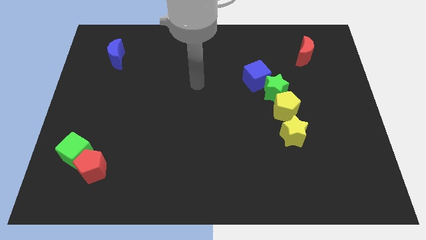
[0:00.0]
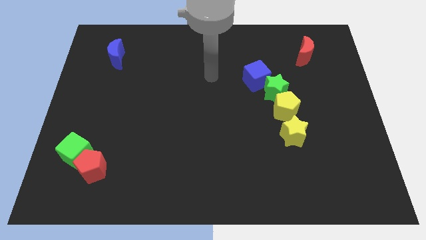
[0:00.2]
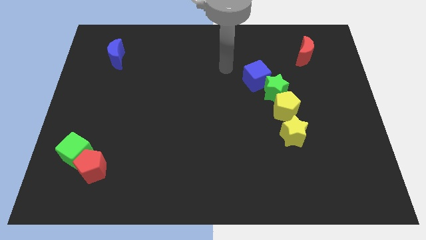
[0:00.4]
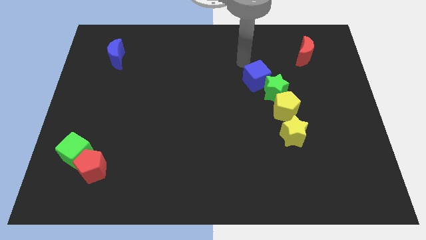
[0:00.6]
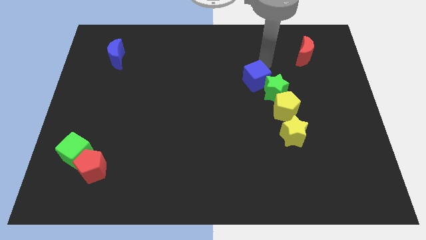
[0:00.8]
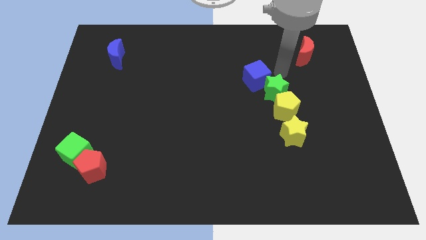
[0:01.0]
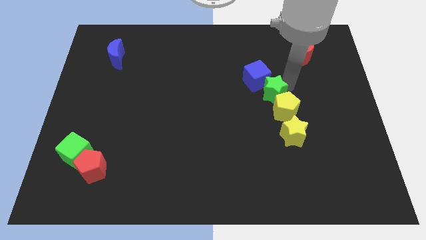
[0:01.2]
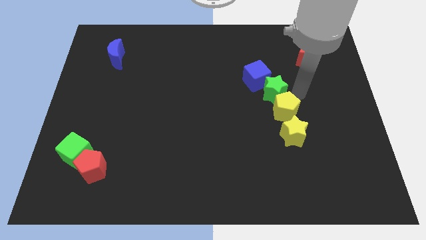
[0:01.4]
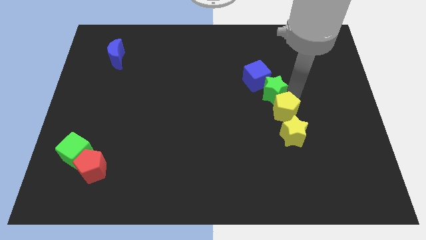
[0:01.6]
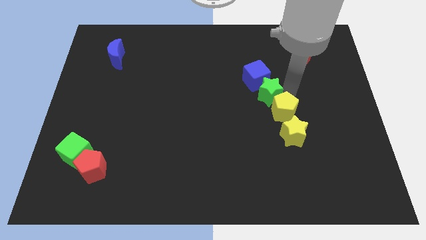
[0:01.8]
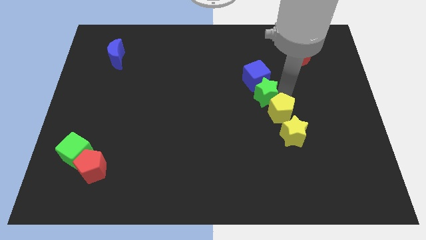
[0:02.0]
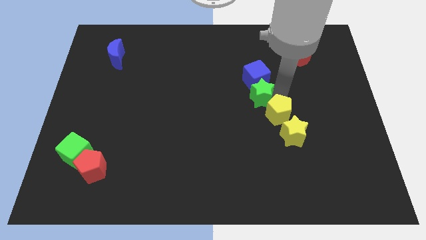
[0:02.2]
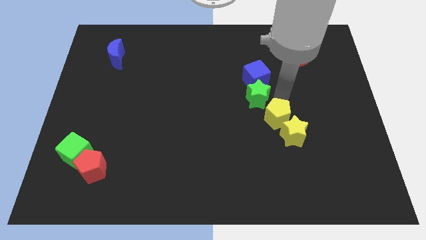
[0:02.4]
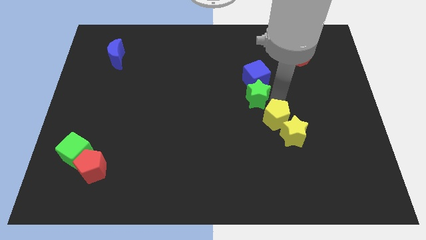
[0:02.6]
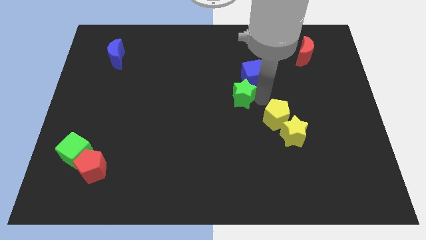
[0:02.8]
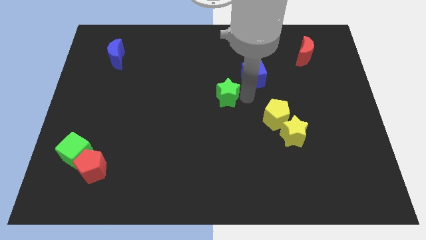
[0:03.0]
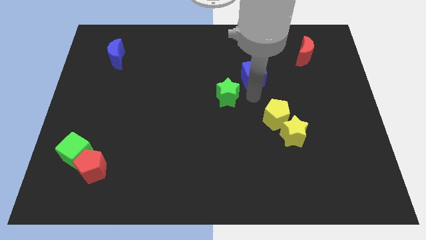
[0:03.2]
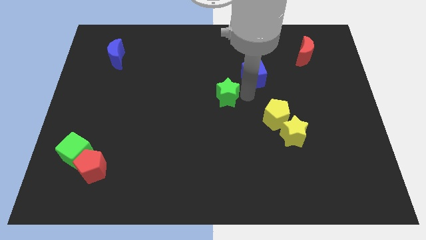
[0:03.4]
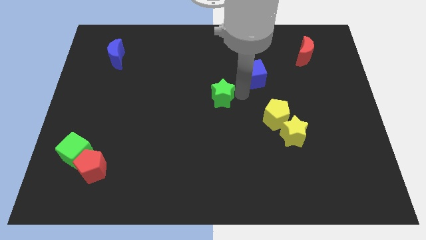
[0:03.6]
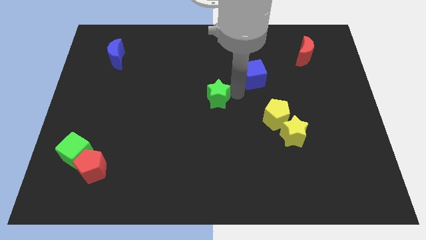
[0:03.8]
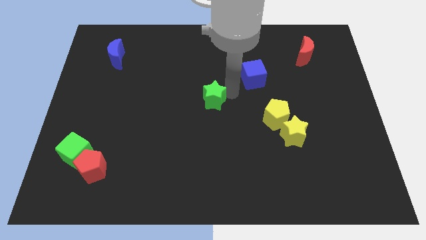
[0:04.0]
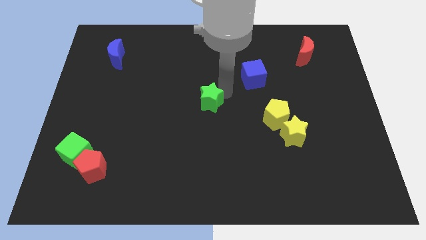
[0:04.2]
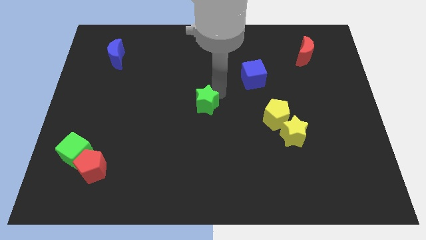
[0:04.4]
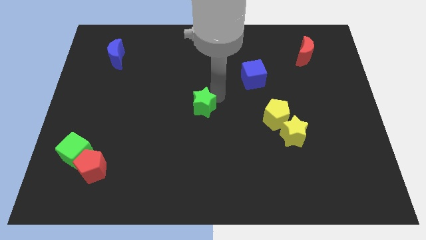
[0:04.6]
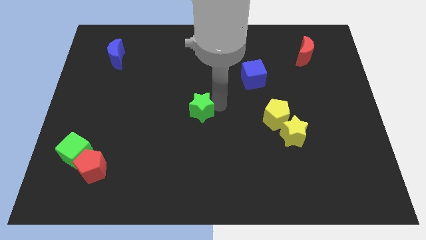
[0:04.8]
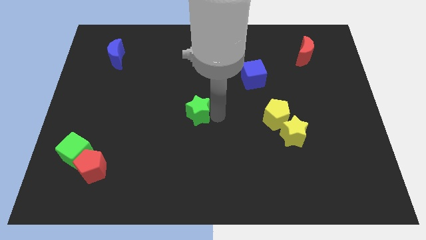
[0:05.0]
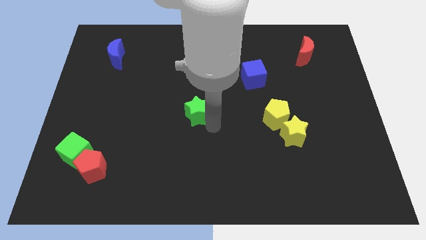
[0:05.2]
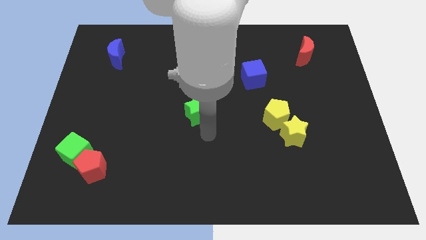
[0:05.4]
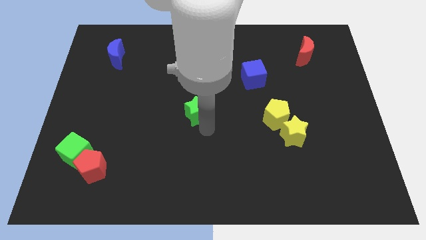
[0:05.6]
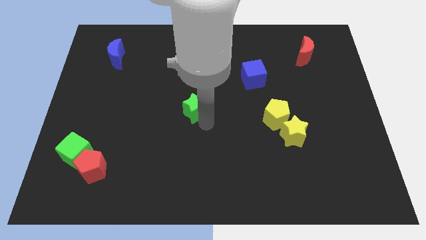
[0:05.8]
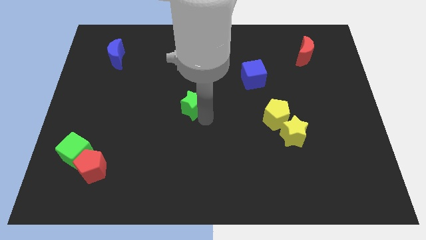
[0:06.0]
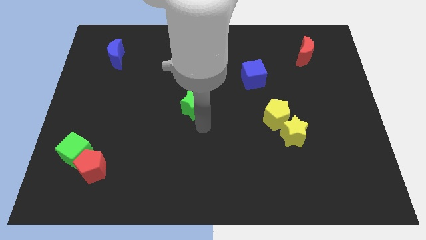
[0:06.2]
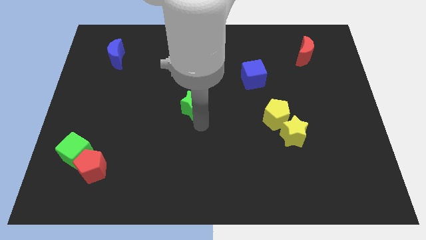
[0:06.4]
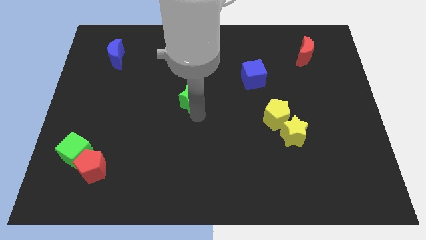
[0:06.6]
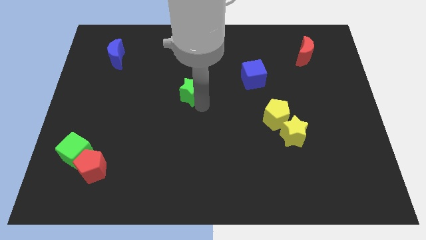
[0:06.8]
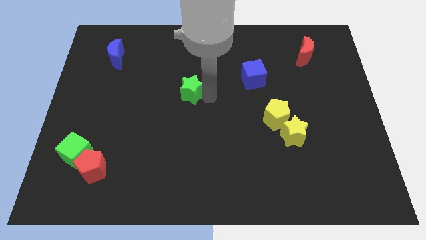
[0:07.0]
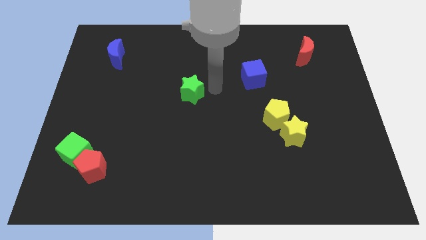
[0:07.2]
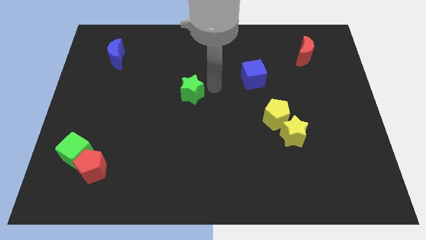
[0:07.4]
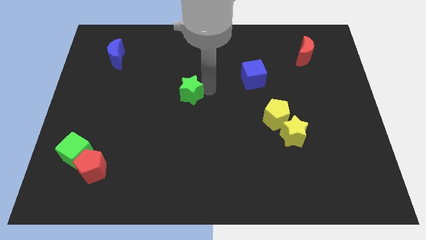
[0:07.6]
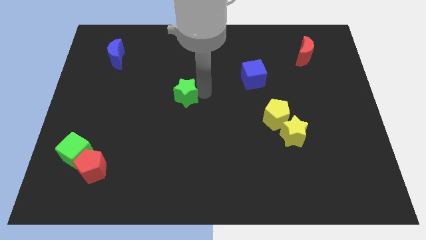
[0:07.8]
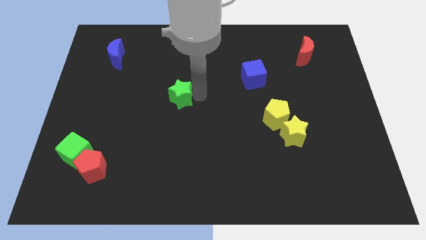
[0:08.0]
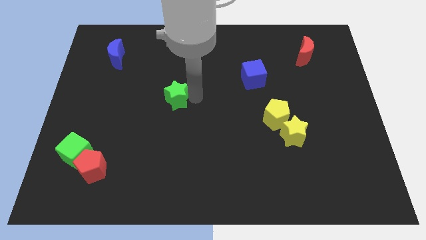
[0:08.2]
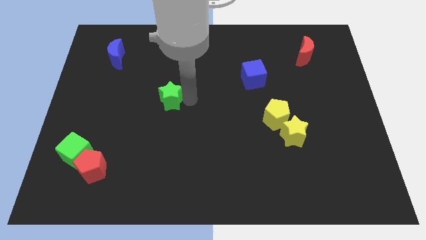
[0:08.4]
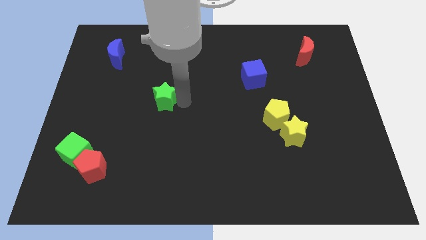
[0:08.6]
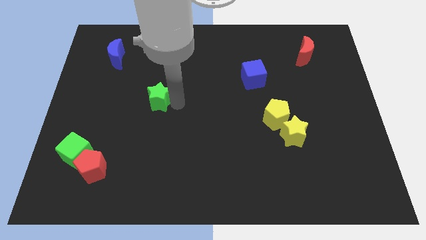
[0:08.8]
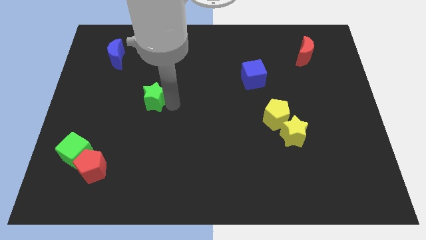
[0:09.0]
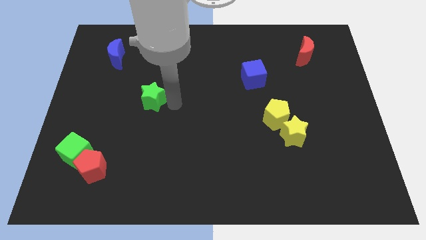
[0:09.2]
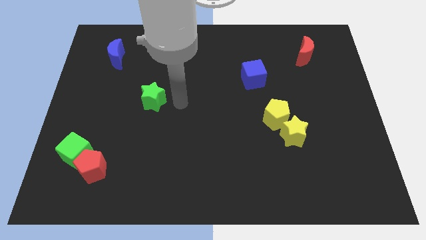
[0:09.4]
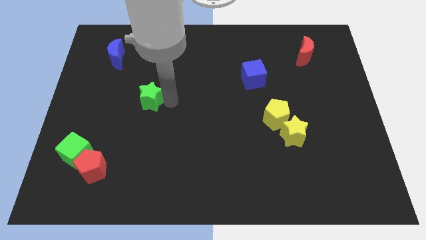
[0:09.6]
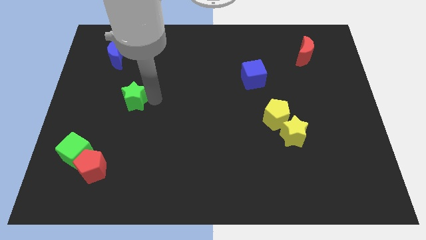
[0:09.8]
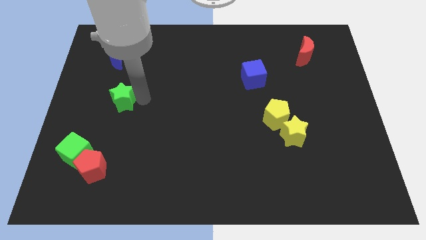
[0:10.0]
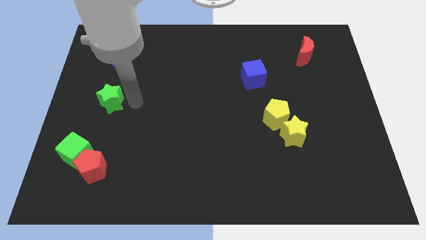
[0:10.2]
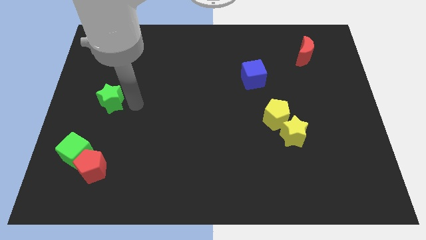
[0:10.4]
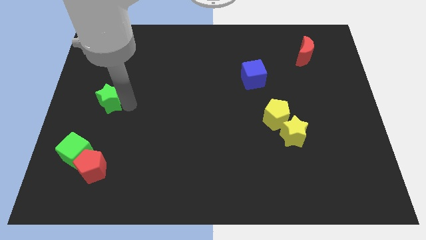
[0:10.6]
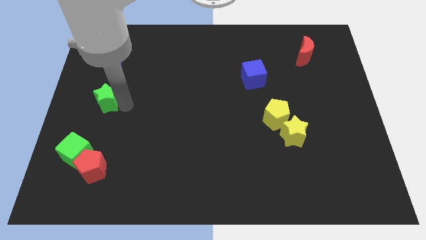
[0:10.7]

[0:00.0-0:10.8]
put the green star to the left side

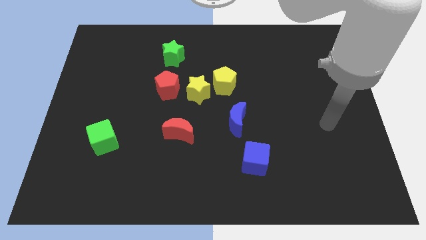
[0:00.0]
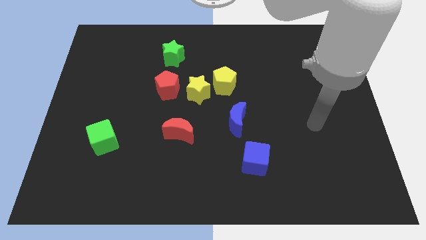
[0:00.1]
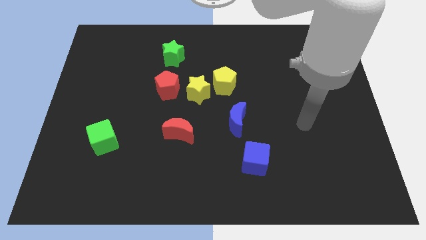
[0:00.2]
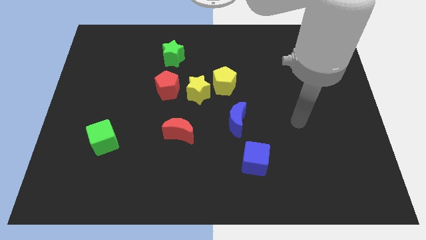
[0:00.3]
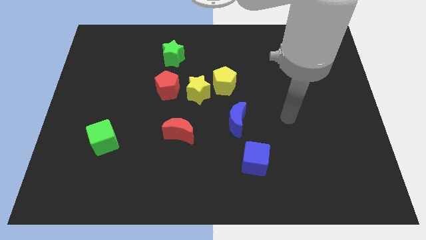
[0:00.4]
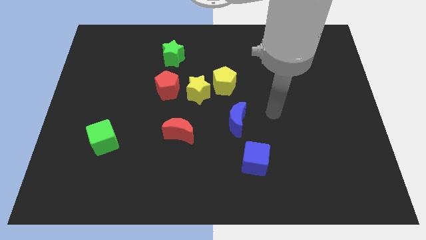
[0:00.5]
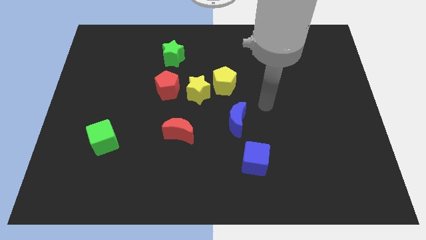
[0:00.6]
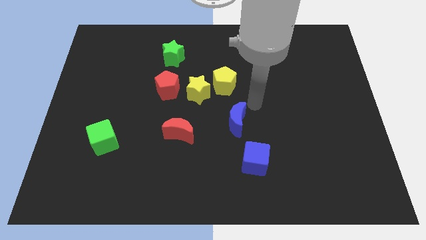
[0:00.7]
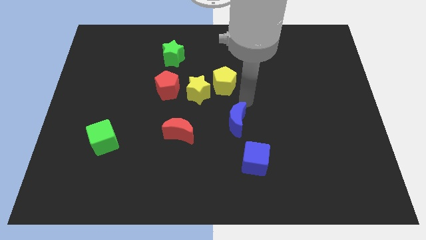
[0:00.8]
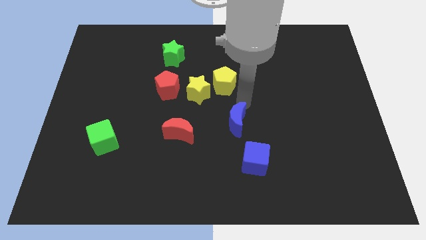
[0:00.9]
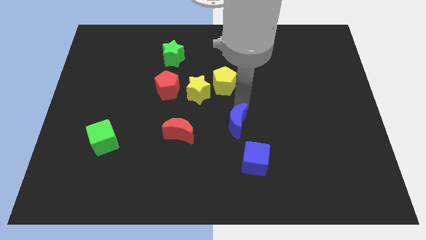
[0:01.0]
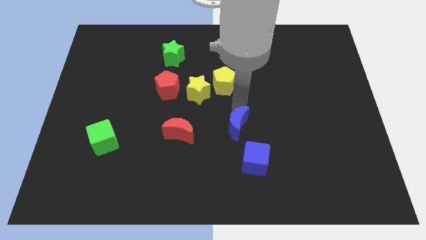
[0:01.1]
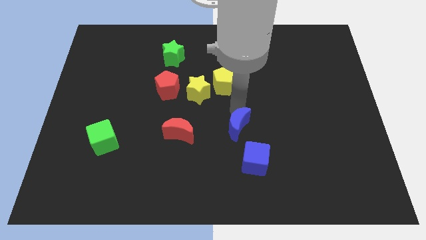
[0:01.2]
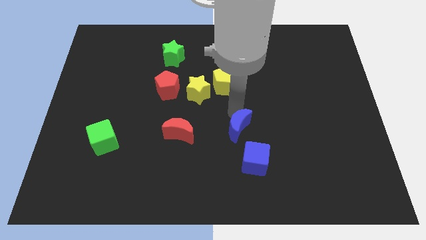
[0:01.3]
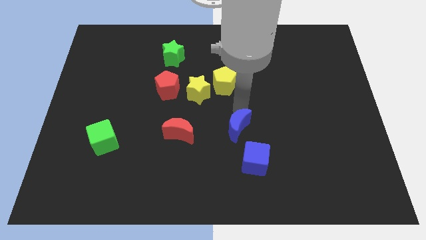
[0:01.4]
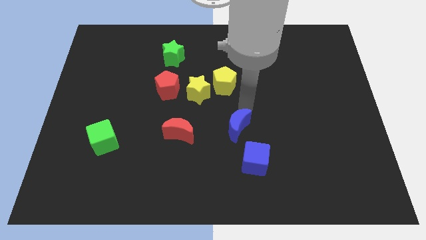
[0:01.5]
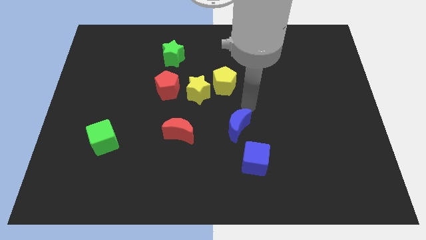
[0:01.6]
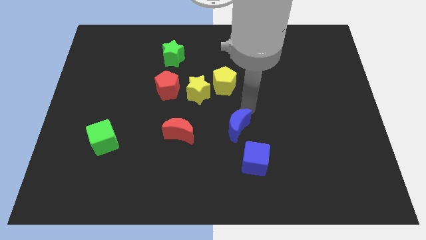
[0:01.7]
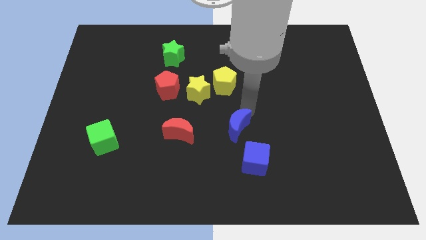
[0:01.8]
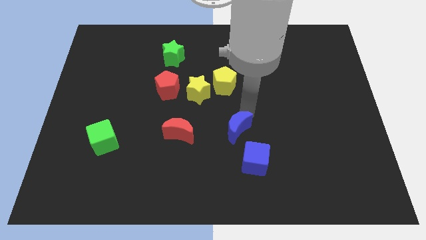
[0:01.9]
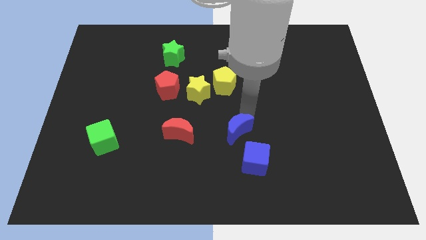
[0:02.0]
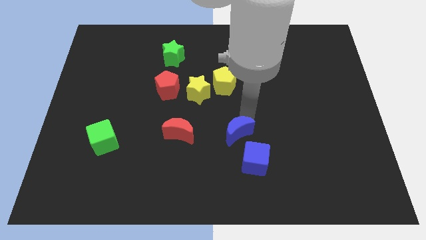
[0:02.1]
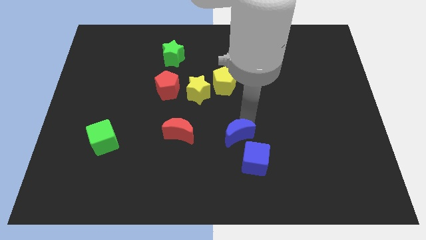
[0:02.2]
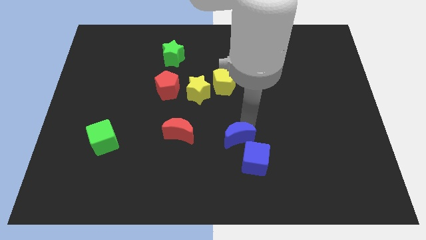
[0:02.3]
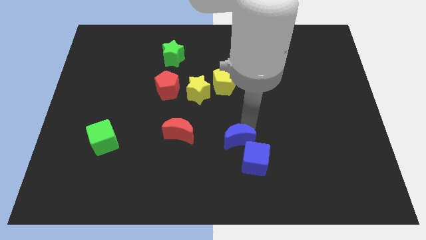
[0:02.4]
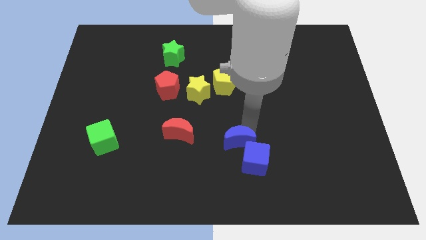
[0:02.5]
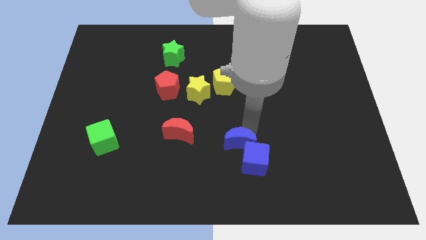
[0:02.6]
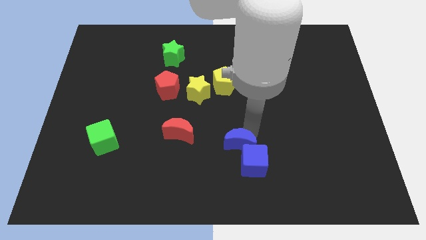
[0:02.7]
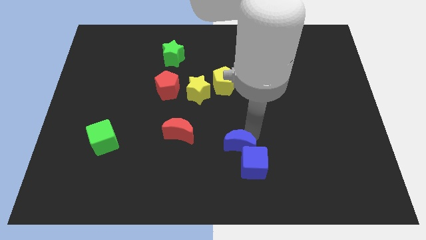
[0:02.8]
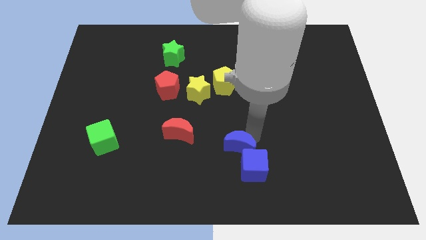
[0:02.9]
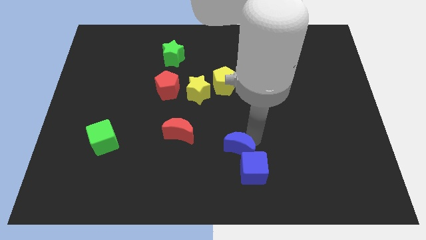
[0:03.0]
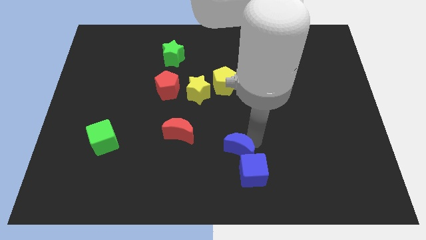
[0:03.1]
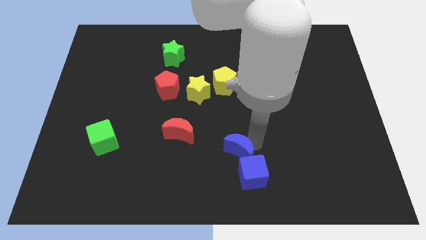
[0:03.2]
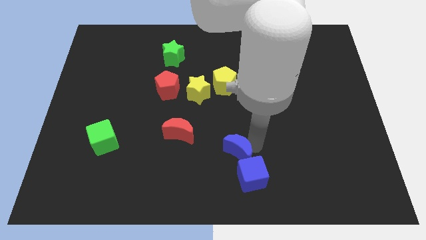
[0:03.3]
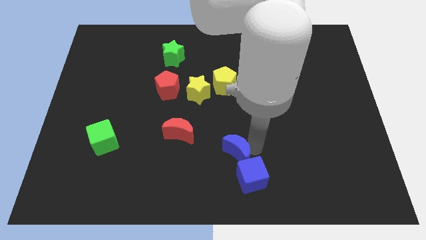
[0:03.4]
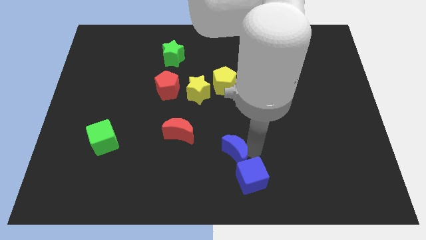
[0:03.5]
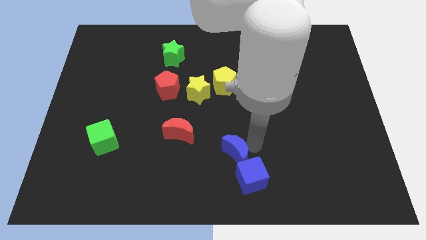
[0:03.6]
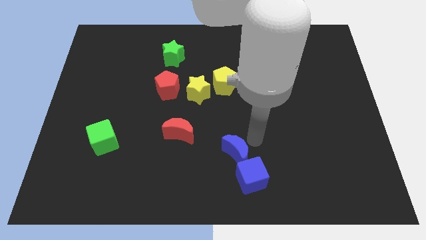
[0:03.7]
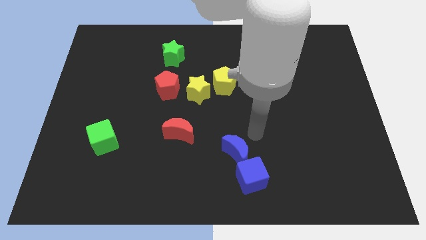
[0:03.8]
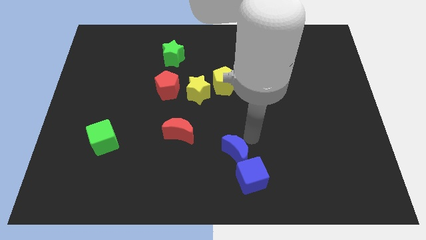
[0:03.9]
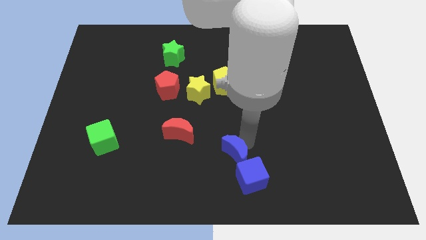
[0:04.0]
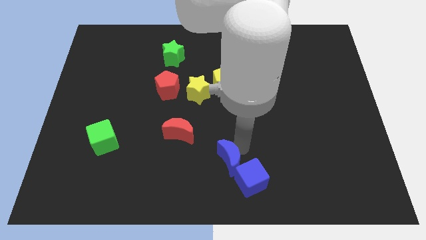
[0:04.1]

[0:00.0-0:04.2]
slide the blue moon to the bottom side
